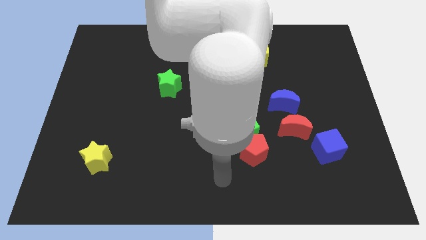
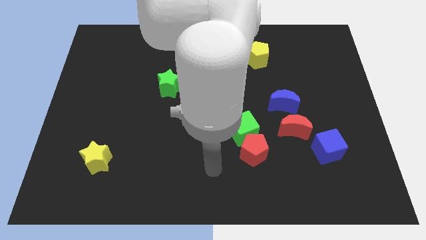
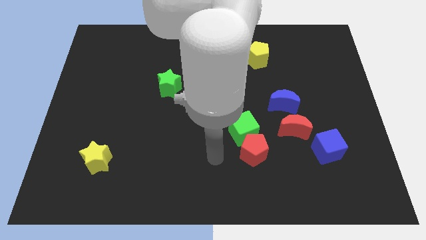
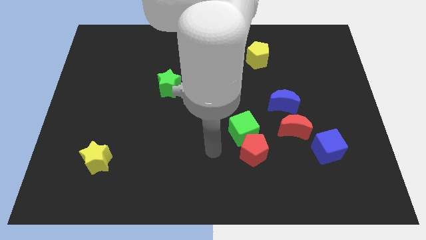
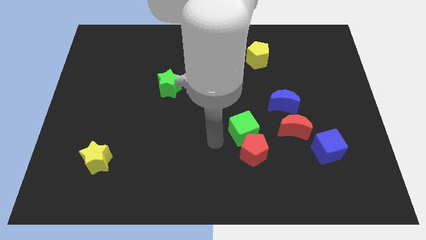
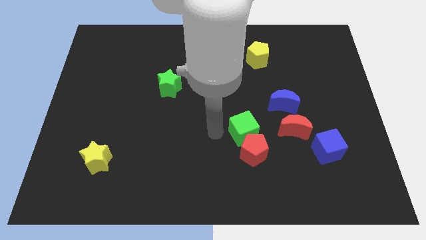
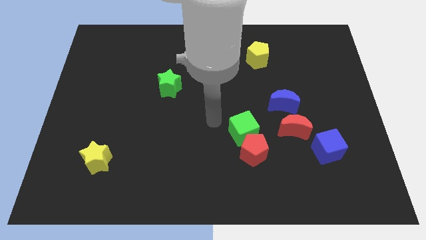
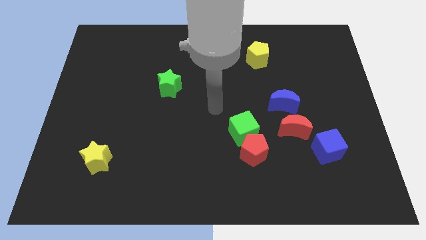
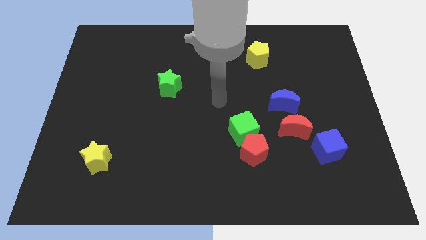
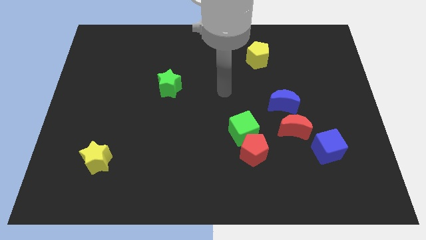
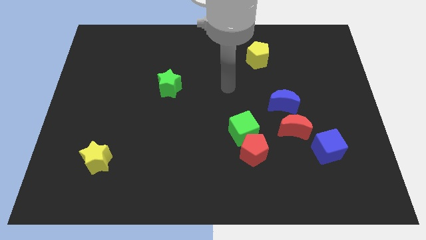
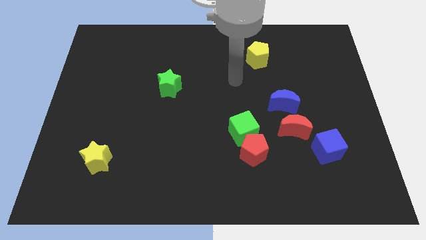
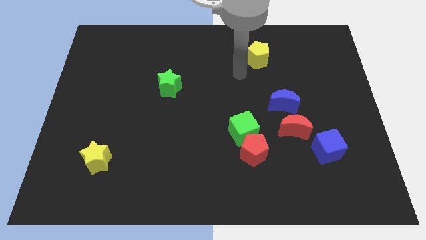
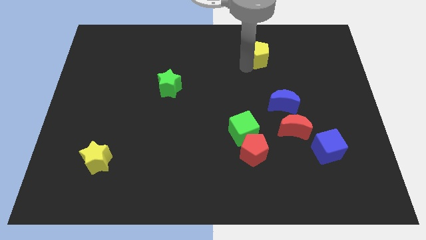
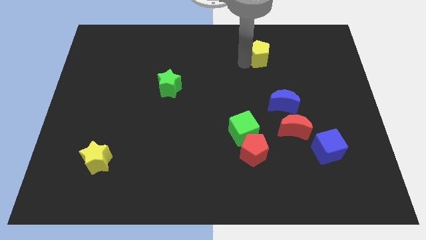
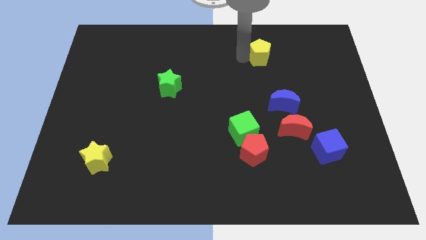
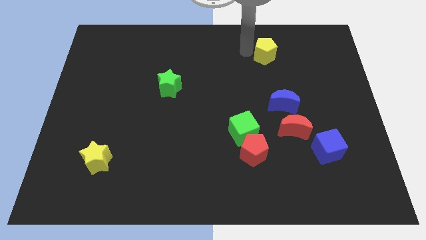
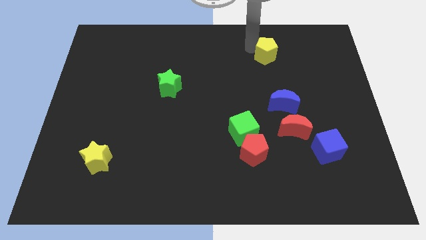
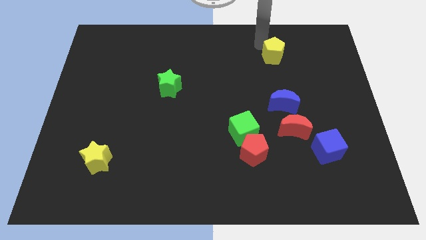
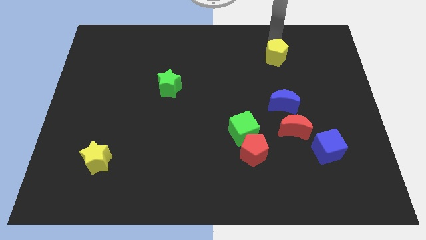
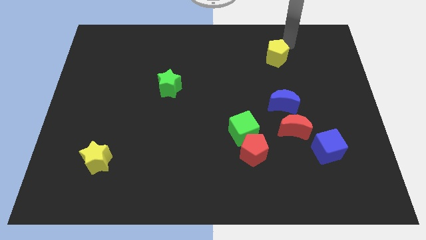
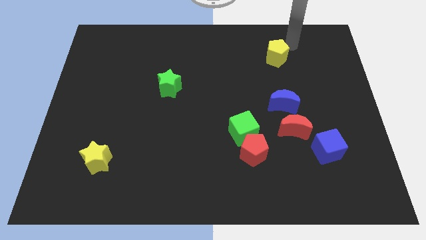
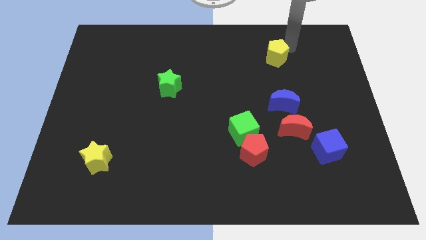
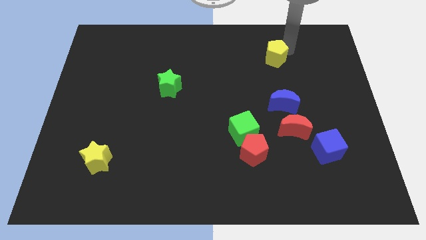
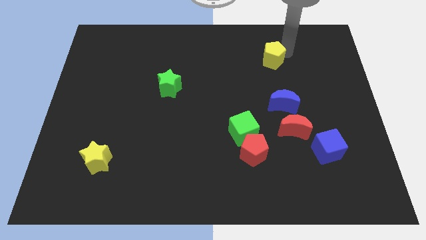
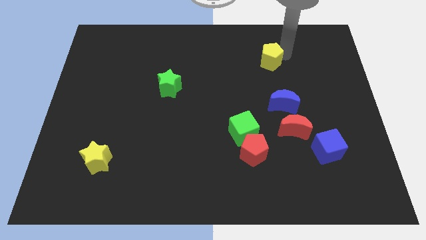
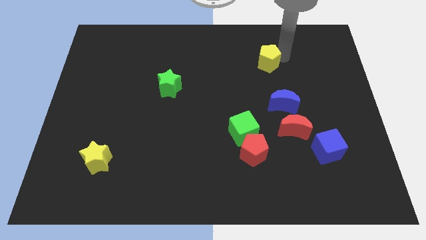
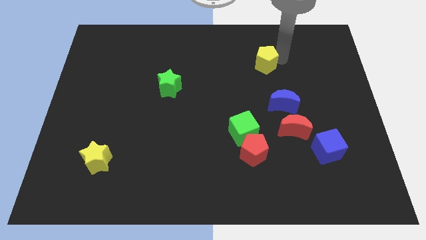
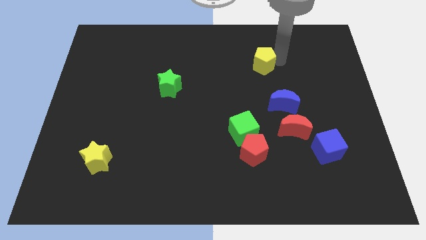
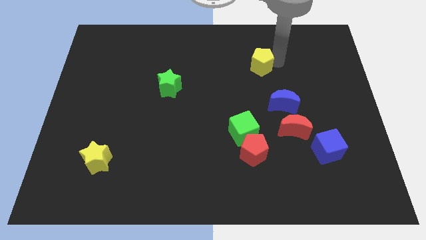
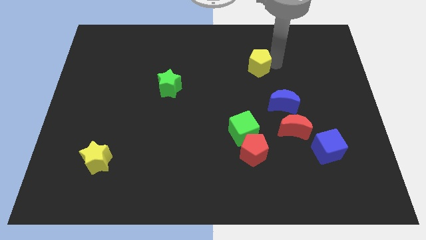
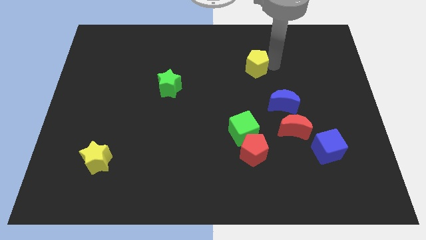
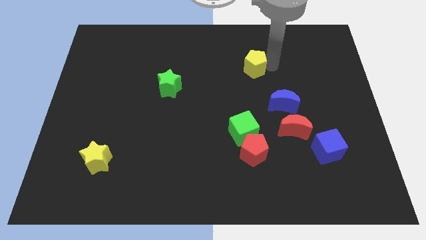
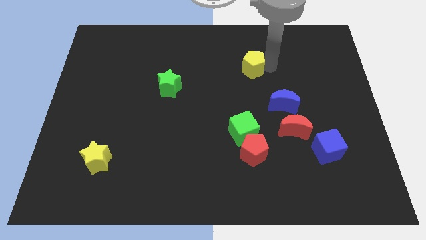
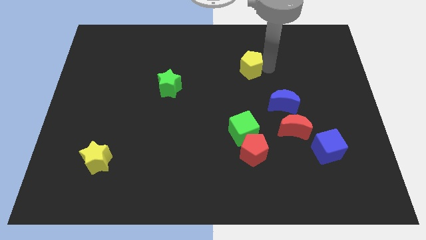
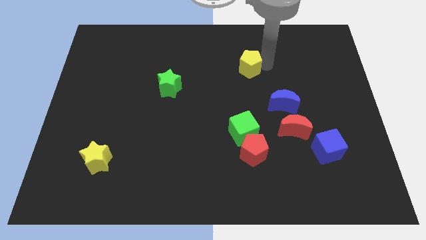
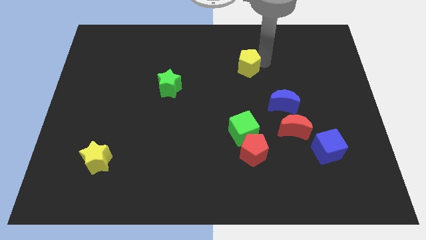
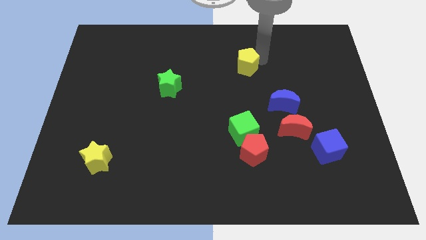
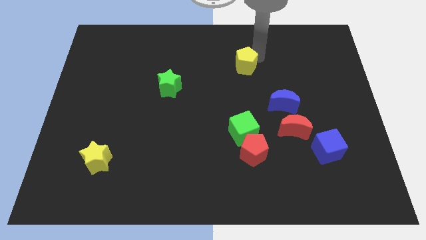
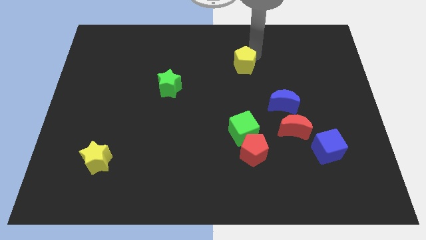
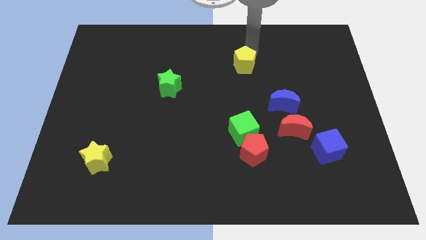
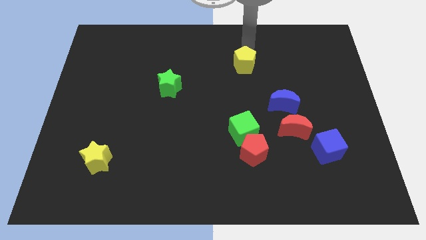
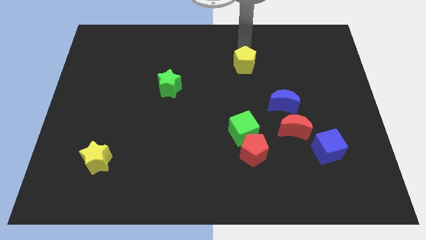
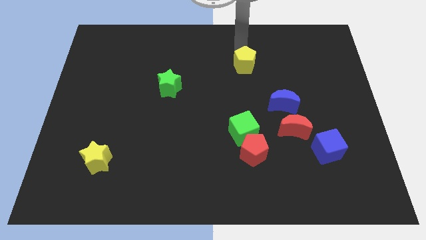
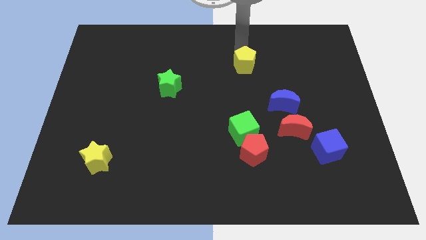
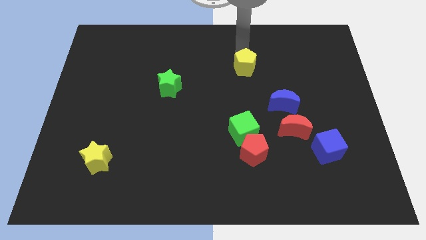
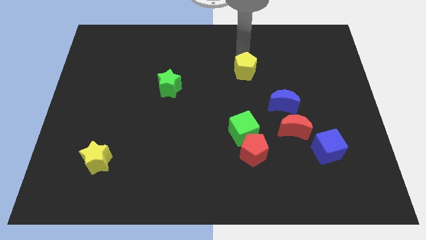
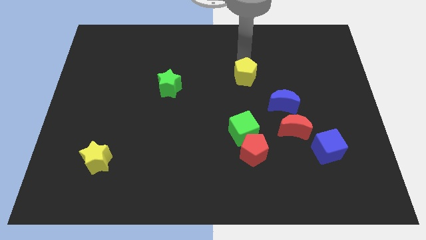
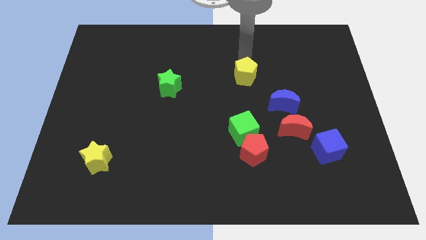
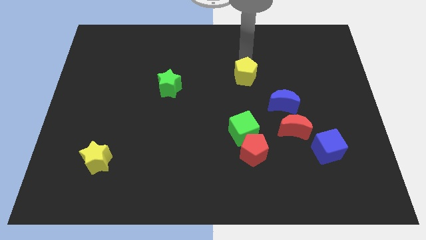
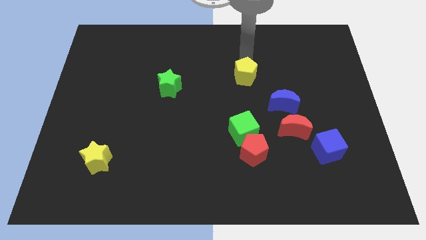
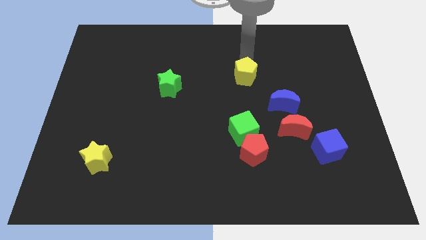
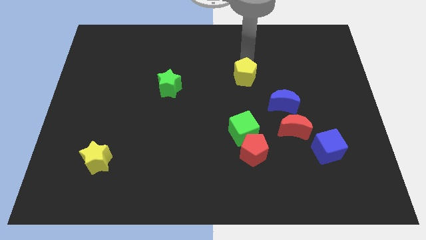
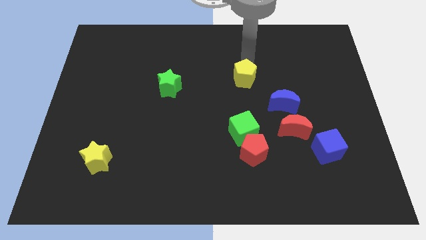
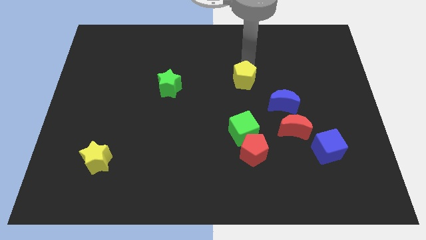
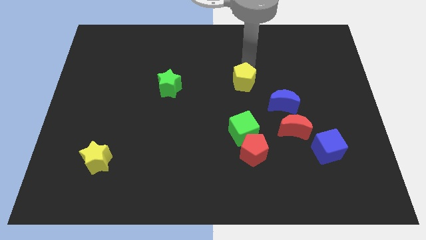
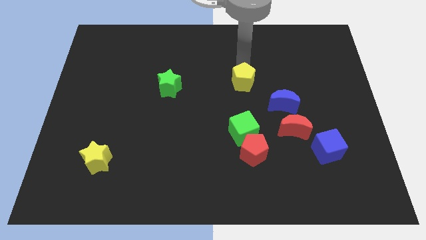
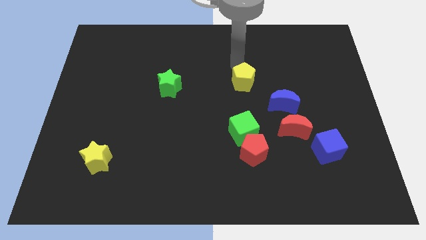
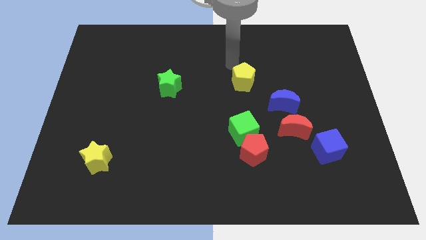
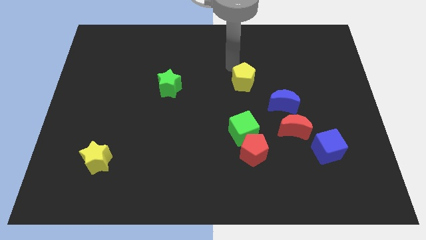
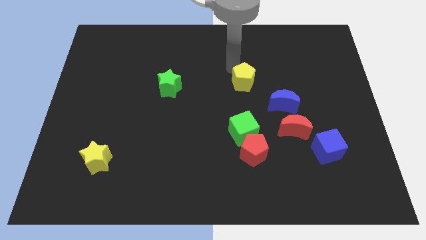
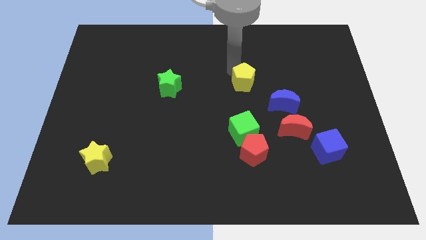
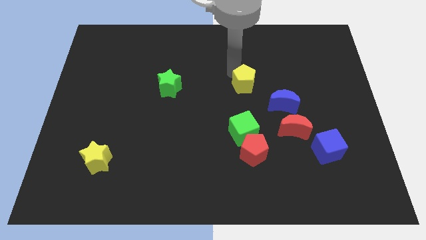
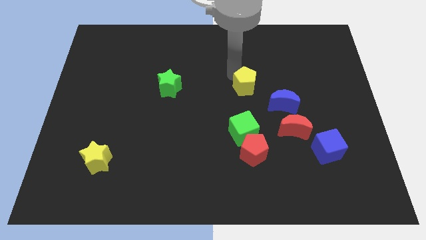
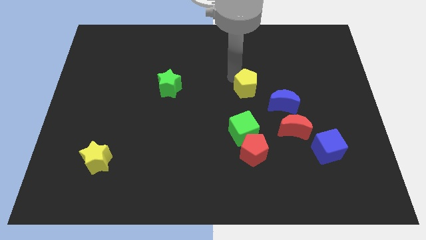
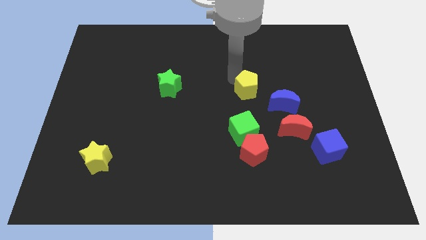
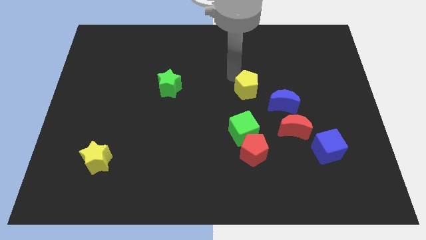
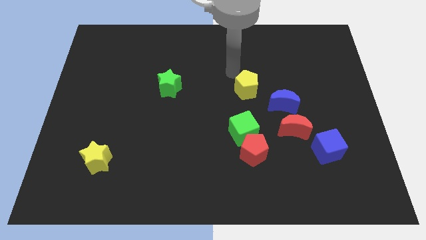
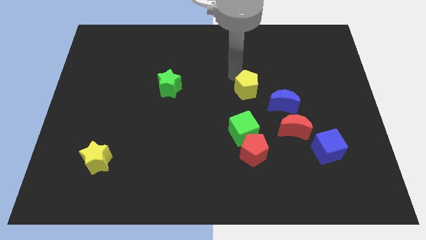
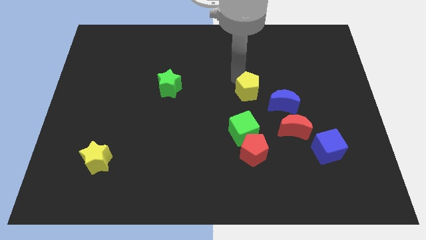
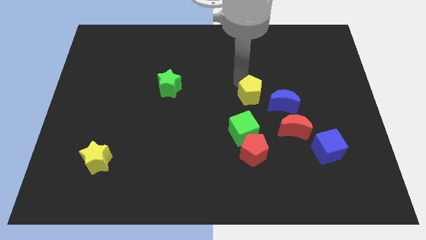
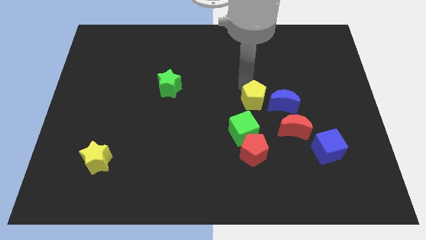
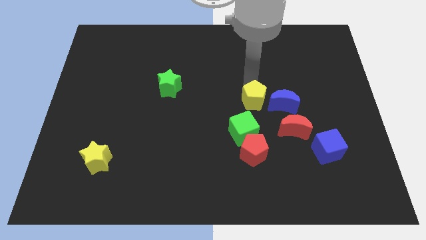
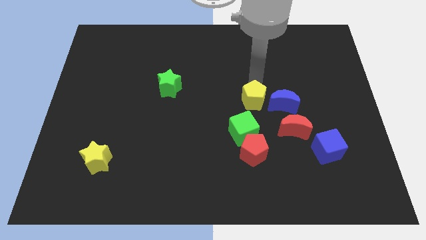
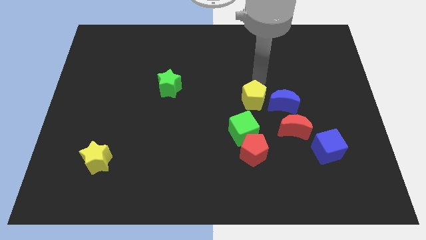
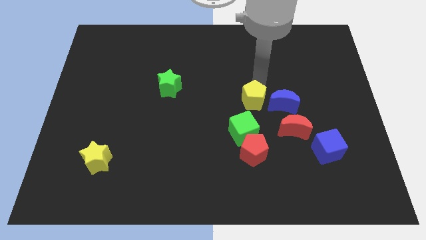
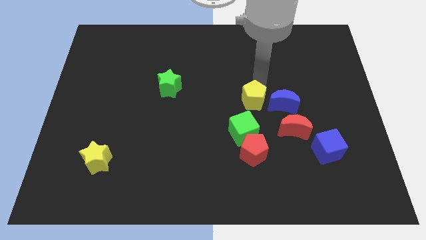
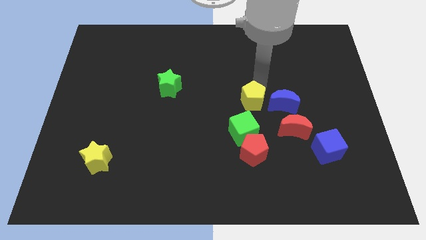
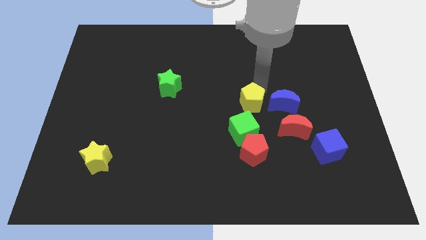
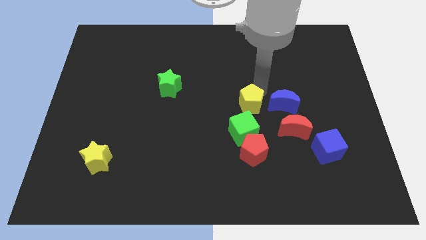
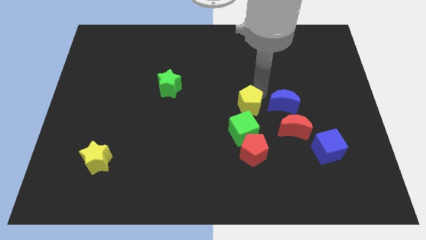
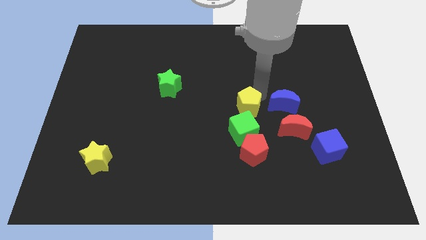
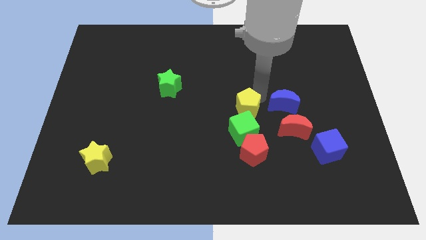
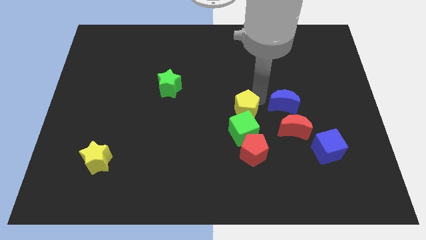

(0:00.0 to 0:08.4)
move the yellow pentagon next to the green cube
